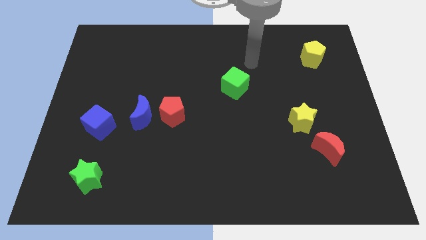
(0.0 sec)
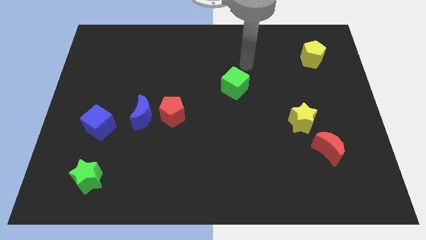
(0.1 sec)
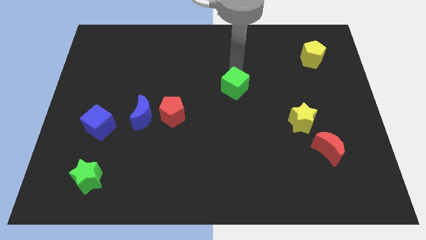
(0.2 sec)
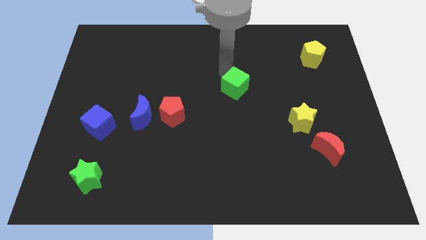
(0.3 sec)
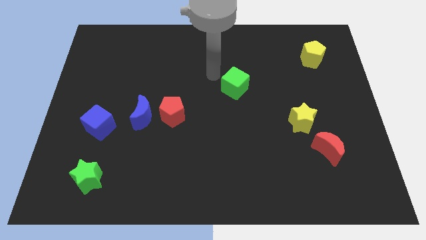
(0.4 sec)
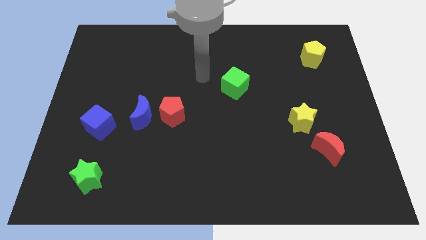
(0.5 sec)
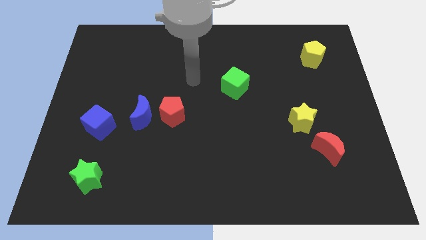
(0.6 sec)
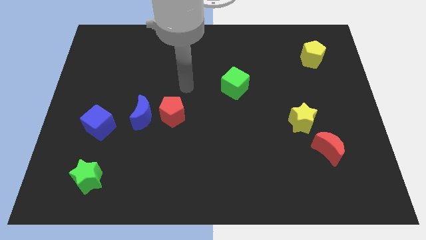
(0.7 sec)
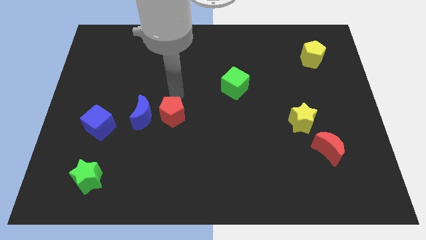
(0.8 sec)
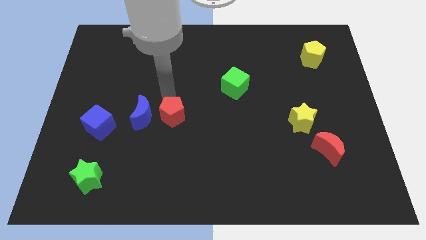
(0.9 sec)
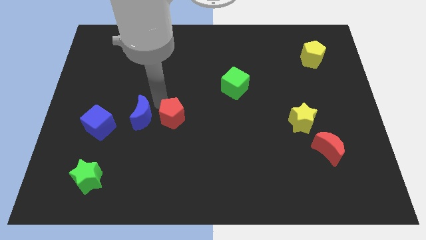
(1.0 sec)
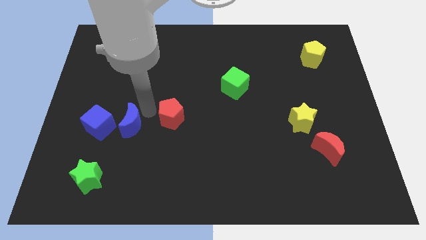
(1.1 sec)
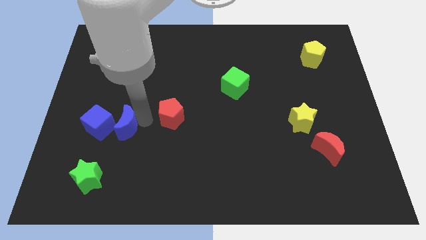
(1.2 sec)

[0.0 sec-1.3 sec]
separate the red pentagon from the blue moon

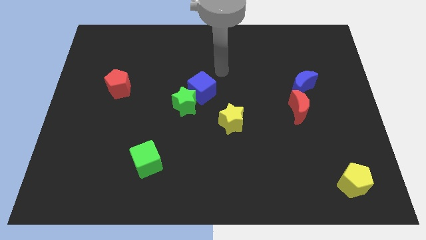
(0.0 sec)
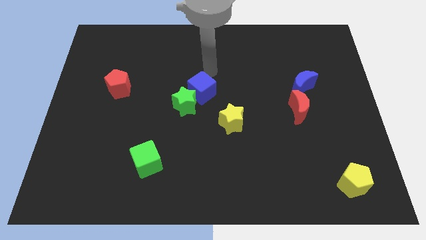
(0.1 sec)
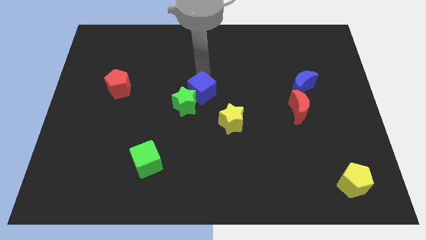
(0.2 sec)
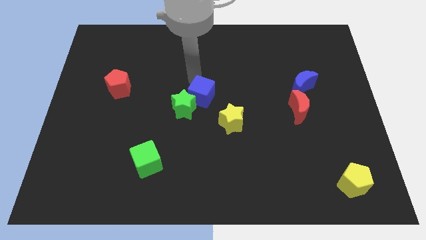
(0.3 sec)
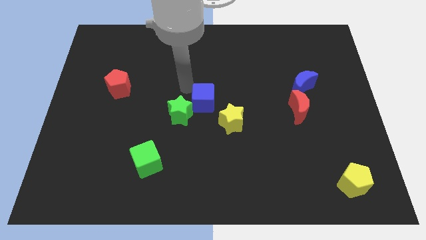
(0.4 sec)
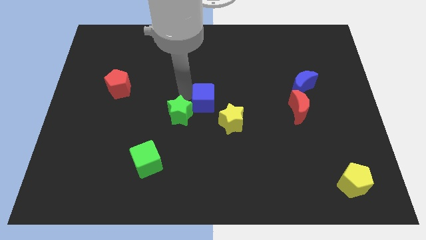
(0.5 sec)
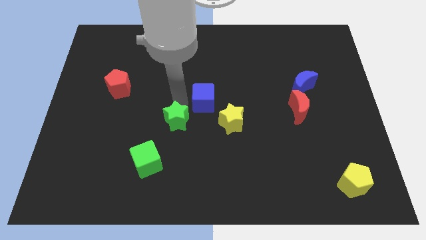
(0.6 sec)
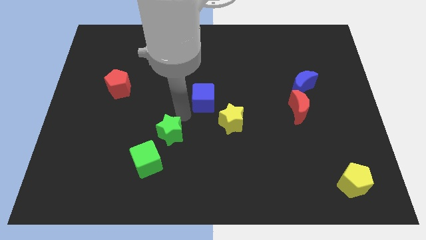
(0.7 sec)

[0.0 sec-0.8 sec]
move the blue cube away from the green star

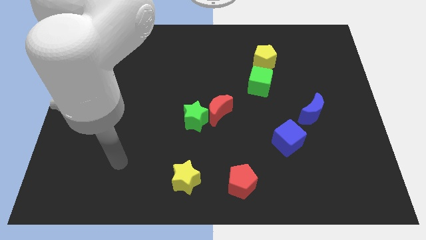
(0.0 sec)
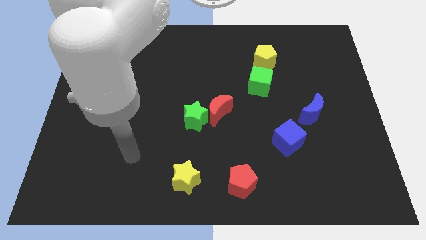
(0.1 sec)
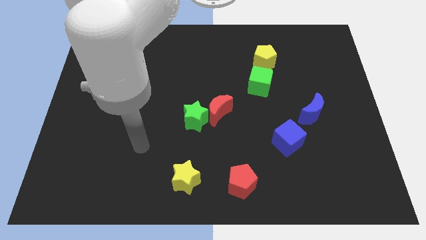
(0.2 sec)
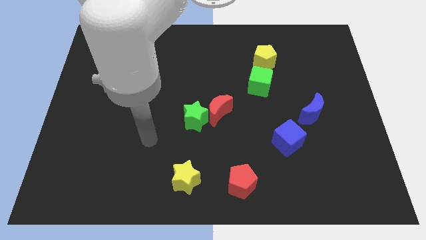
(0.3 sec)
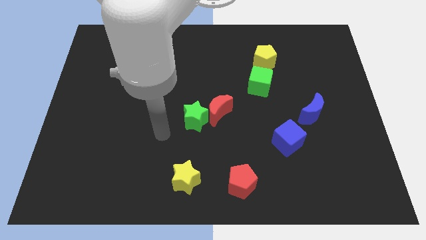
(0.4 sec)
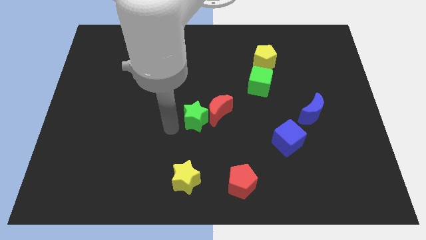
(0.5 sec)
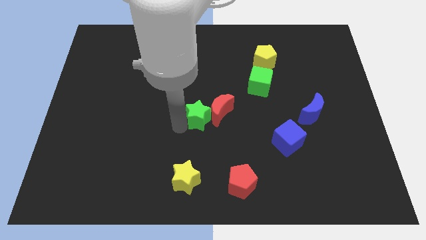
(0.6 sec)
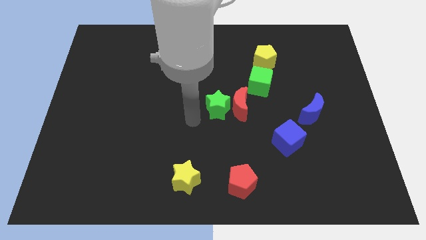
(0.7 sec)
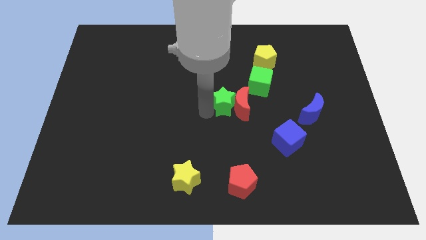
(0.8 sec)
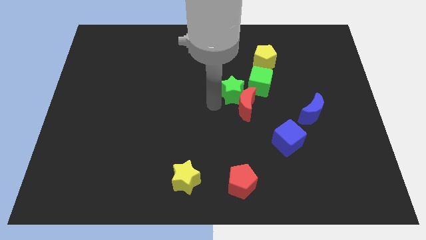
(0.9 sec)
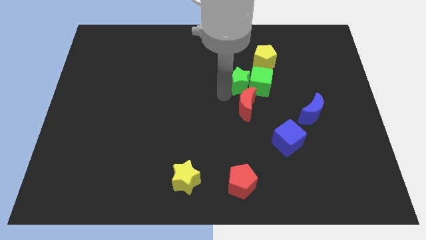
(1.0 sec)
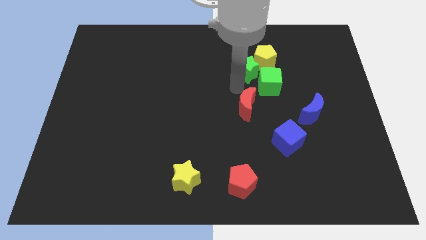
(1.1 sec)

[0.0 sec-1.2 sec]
move the red moon away from the green star

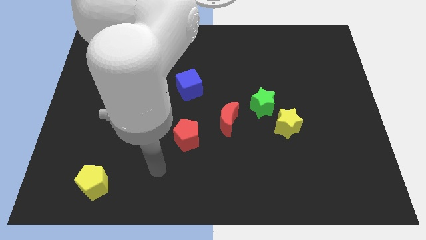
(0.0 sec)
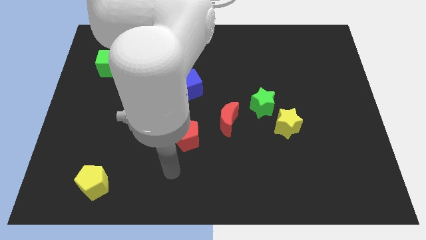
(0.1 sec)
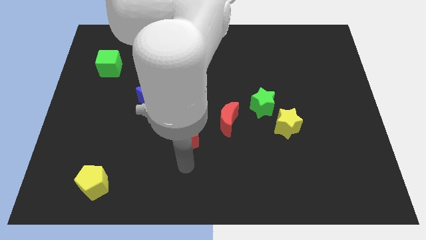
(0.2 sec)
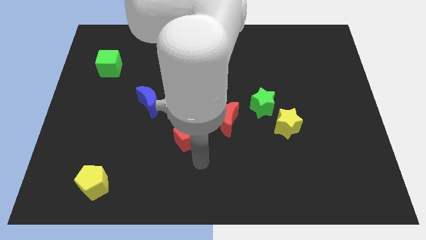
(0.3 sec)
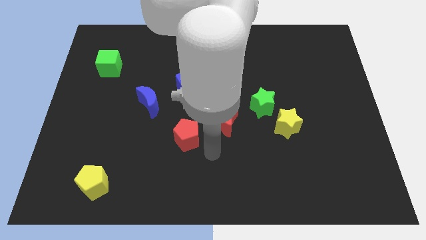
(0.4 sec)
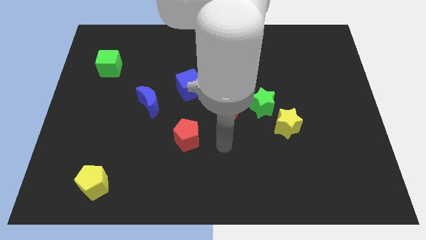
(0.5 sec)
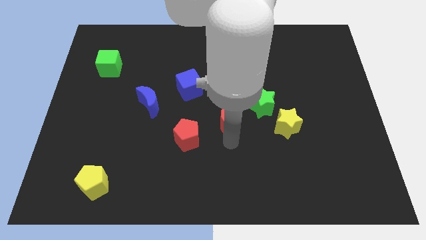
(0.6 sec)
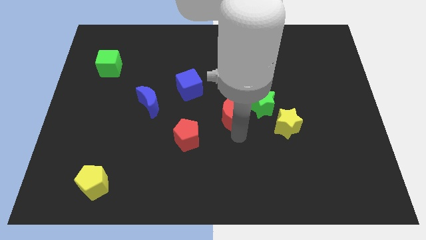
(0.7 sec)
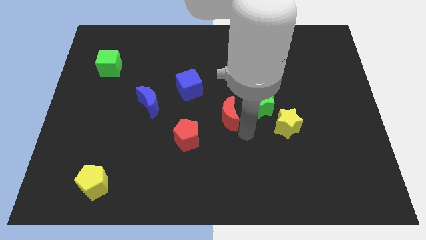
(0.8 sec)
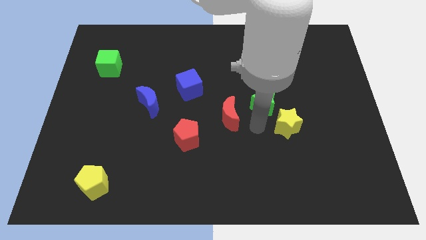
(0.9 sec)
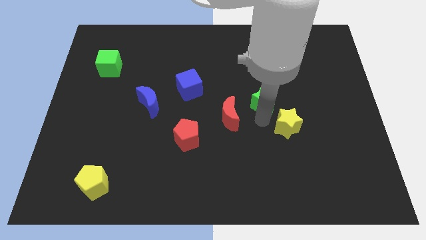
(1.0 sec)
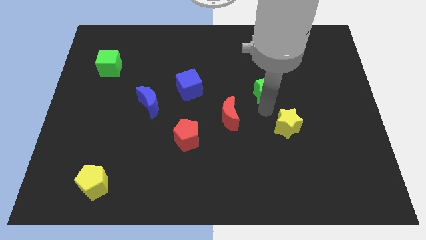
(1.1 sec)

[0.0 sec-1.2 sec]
separate the yellow star from the green star

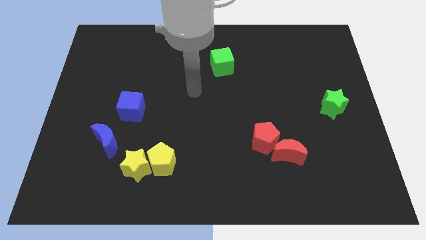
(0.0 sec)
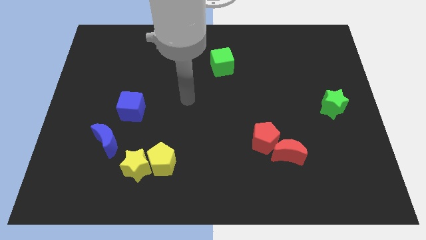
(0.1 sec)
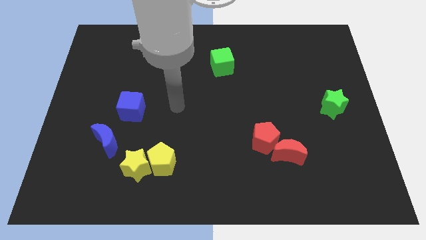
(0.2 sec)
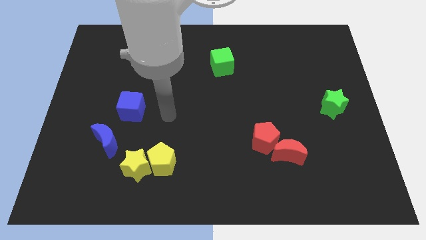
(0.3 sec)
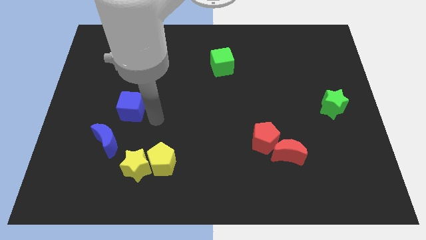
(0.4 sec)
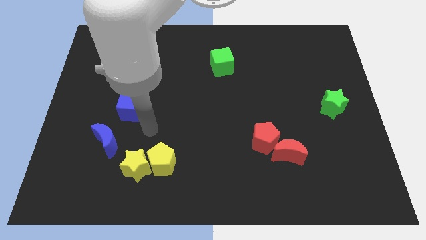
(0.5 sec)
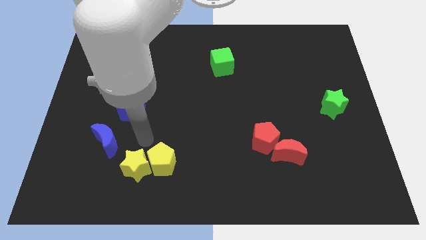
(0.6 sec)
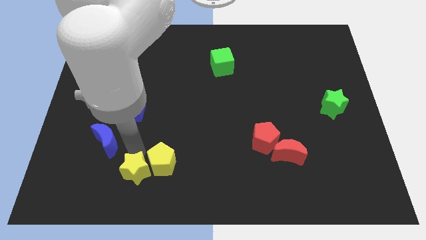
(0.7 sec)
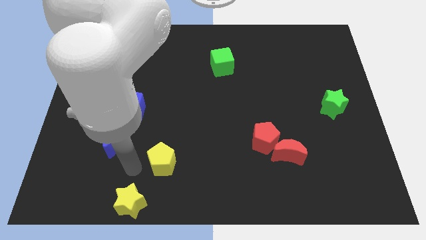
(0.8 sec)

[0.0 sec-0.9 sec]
move the yellow pentagon away from the yellow star

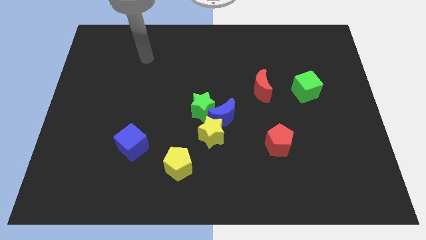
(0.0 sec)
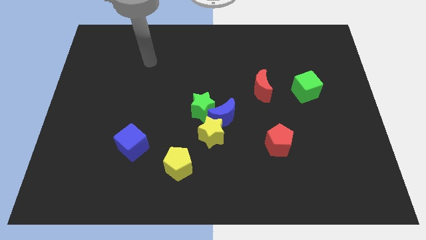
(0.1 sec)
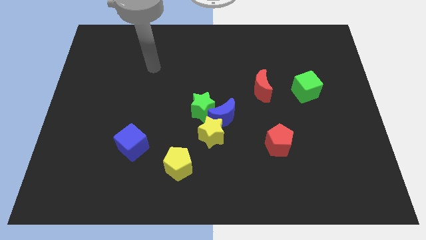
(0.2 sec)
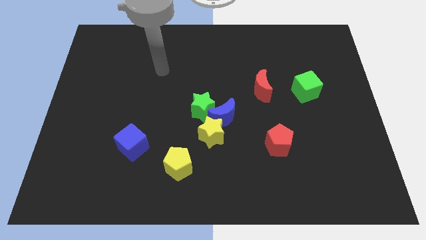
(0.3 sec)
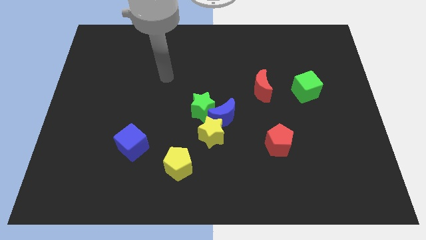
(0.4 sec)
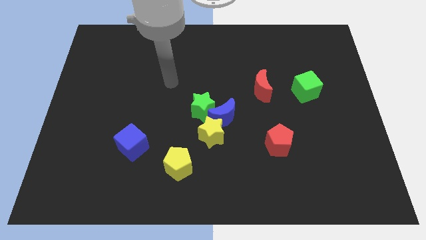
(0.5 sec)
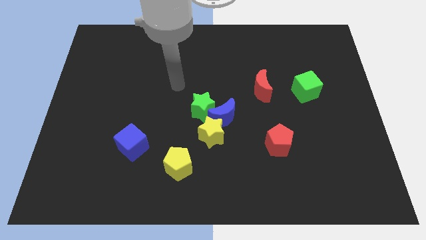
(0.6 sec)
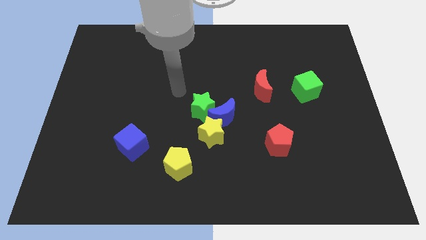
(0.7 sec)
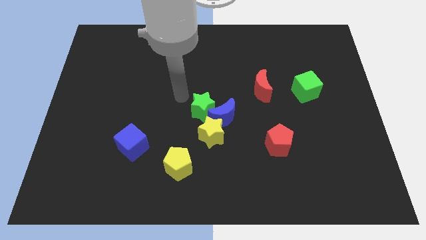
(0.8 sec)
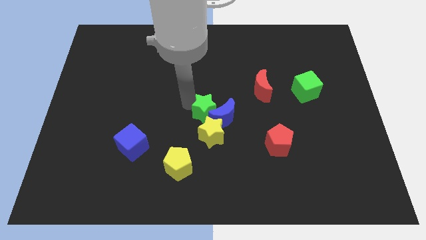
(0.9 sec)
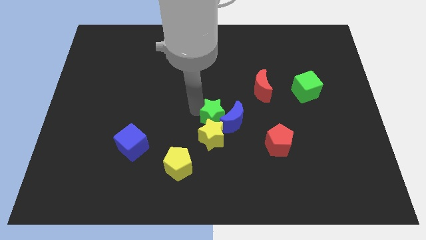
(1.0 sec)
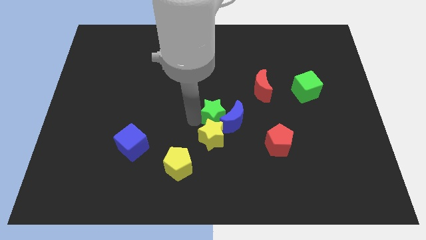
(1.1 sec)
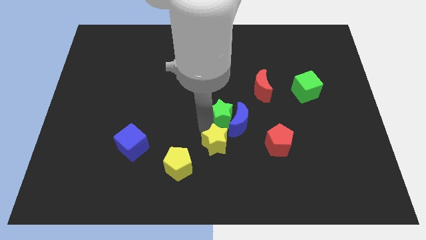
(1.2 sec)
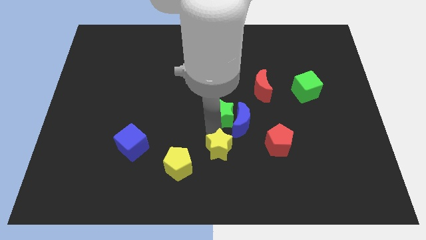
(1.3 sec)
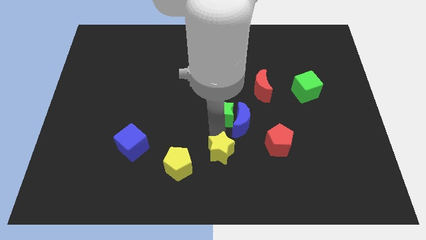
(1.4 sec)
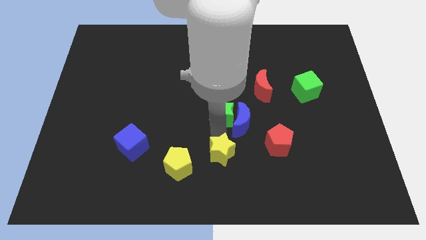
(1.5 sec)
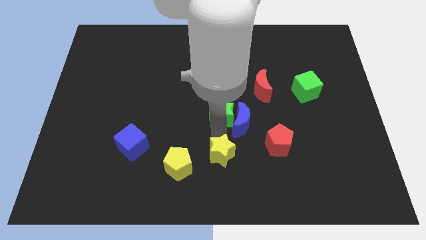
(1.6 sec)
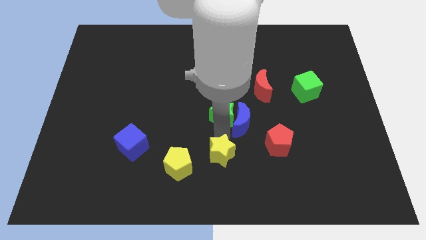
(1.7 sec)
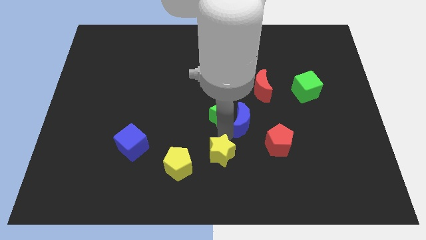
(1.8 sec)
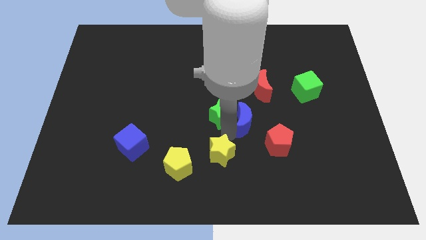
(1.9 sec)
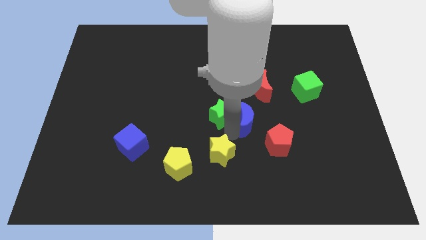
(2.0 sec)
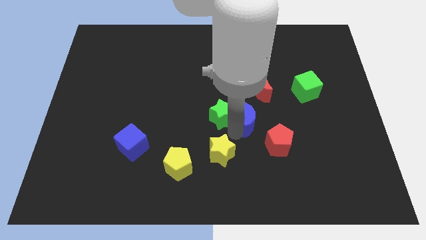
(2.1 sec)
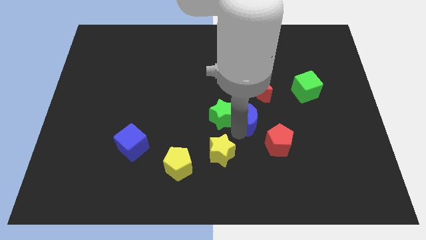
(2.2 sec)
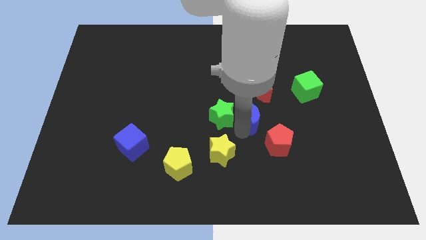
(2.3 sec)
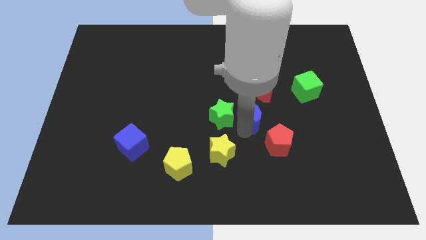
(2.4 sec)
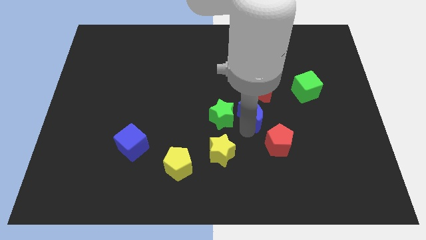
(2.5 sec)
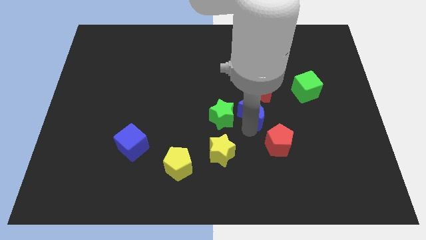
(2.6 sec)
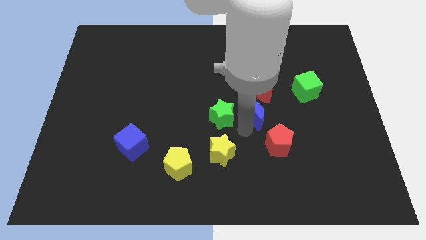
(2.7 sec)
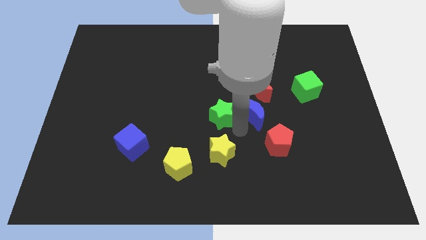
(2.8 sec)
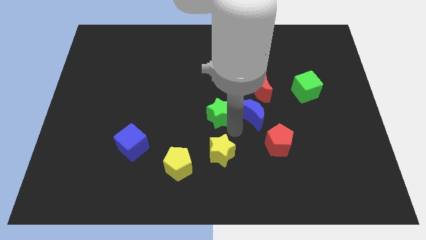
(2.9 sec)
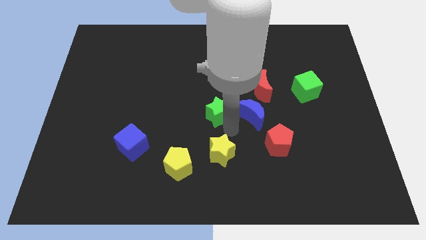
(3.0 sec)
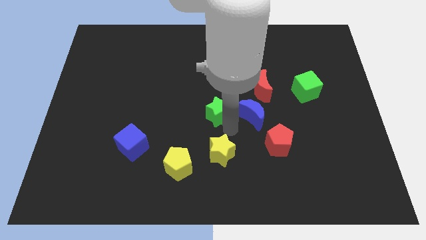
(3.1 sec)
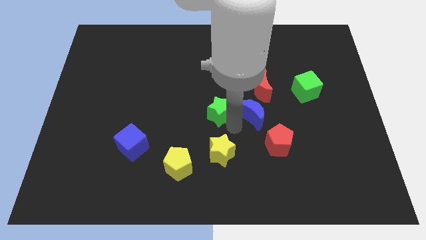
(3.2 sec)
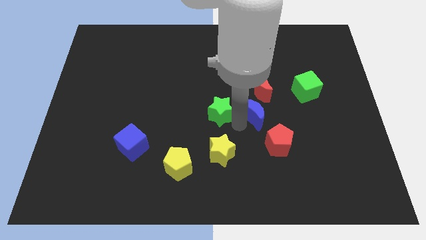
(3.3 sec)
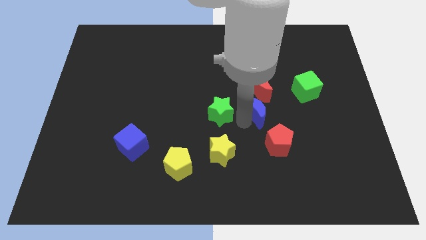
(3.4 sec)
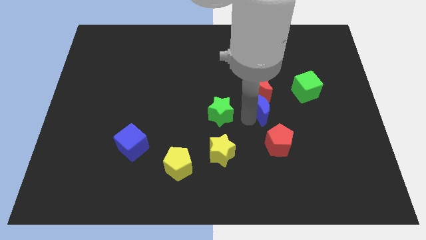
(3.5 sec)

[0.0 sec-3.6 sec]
separate the blue moon from the green star and yellow star

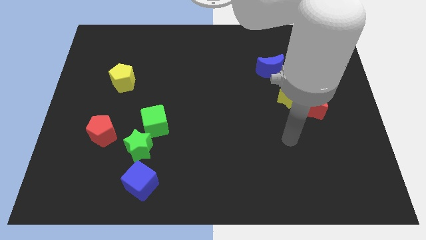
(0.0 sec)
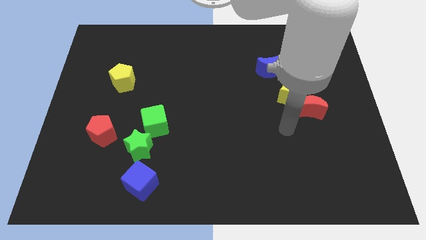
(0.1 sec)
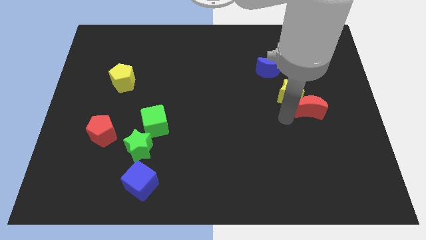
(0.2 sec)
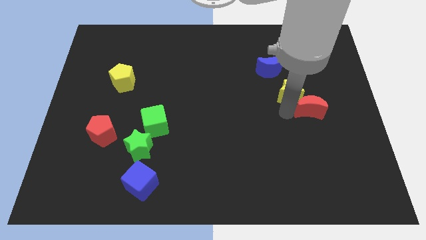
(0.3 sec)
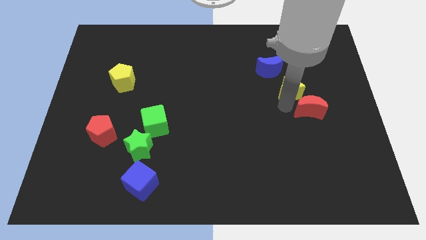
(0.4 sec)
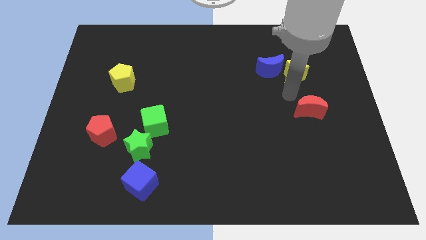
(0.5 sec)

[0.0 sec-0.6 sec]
move the red moon away from the yellow star
